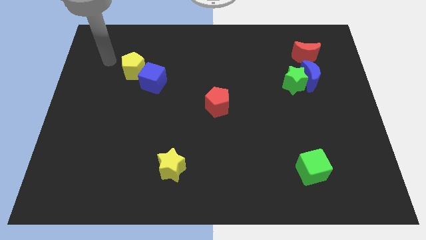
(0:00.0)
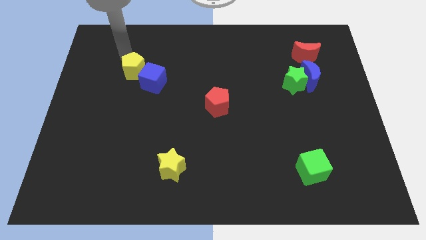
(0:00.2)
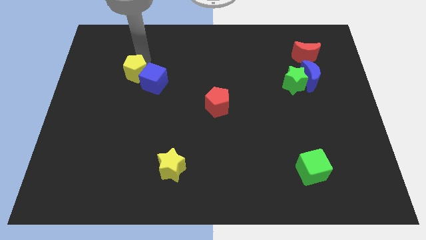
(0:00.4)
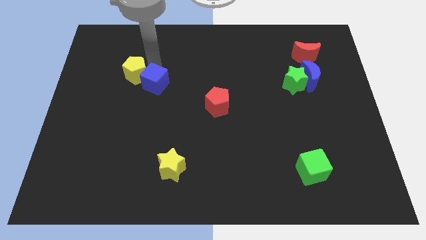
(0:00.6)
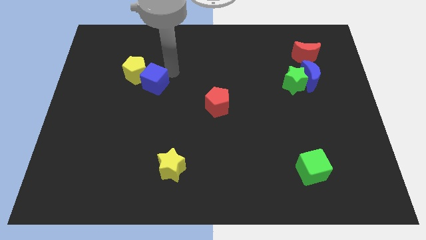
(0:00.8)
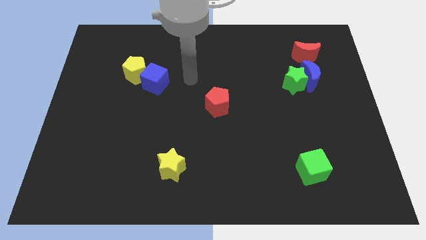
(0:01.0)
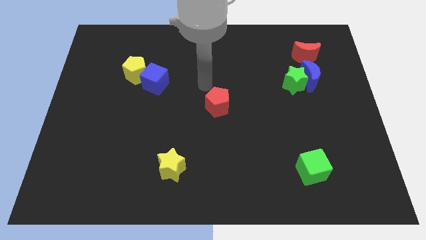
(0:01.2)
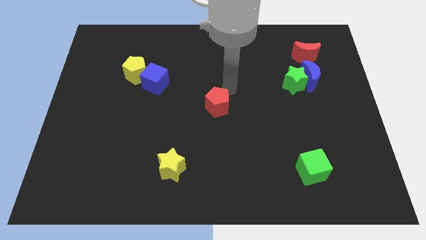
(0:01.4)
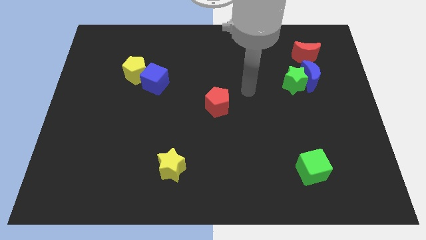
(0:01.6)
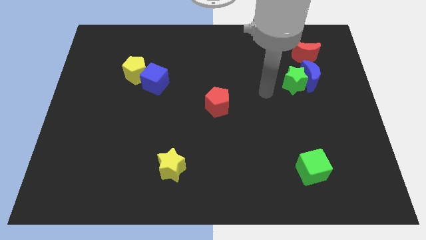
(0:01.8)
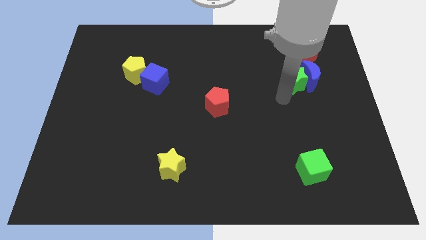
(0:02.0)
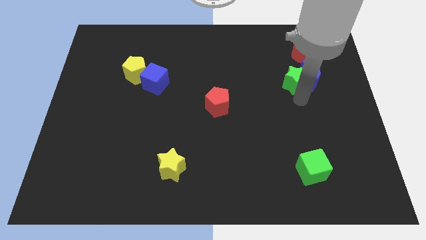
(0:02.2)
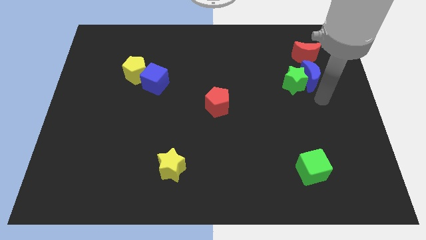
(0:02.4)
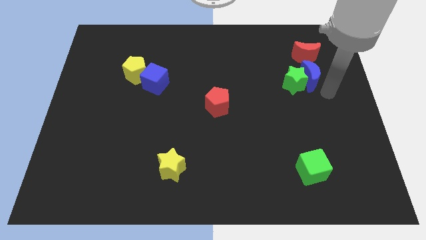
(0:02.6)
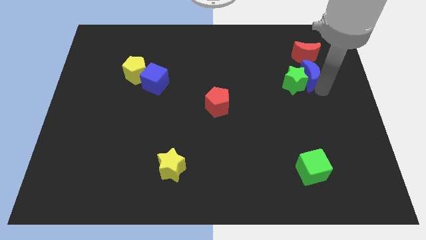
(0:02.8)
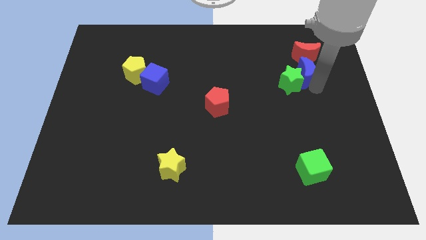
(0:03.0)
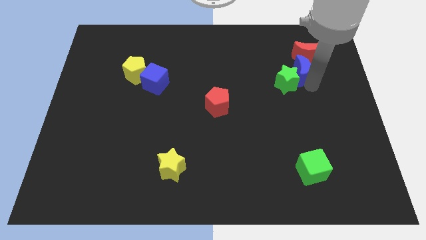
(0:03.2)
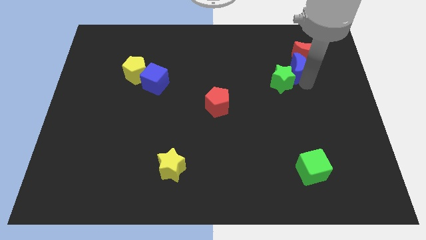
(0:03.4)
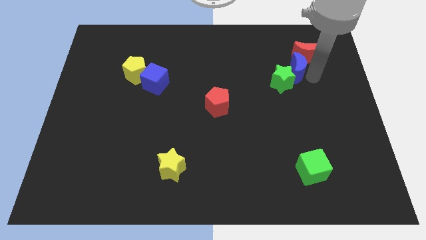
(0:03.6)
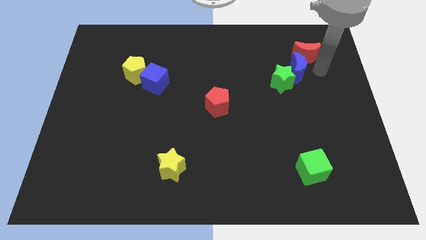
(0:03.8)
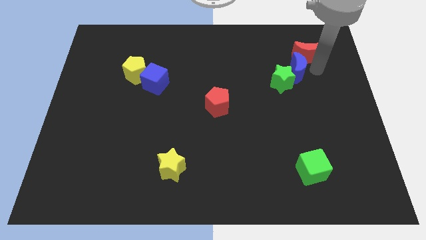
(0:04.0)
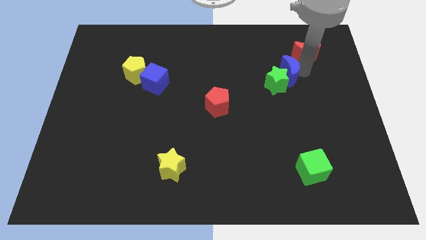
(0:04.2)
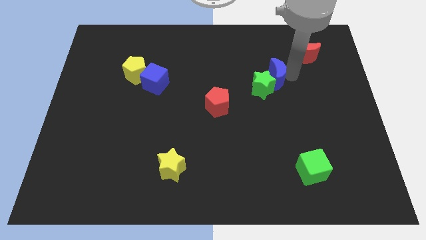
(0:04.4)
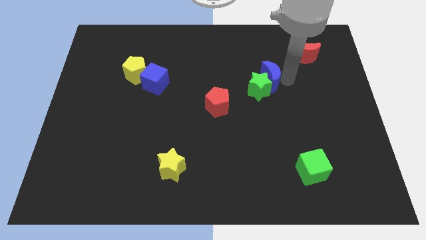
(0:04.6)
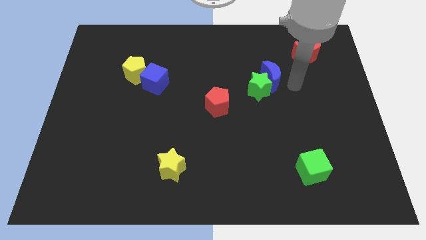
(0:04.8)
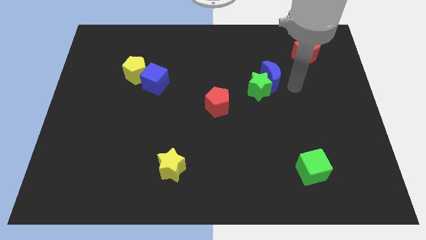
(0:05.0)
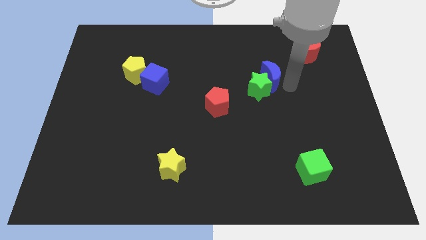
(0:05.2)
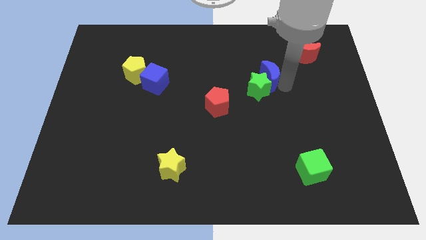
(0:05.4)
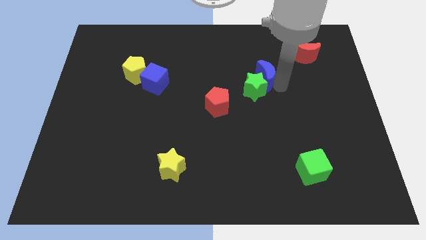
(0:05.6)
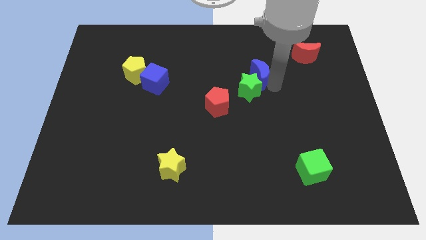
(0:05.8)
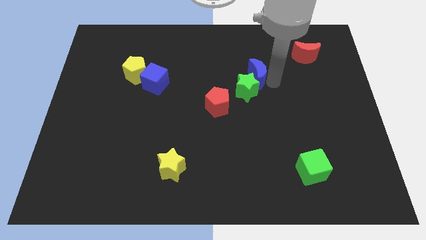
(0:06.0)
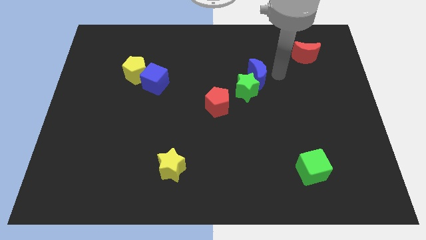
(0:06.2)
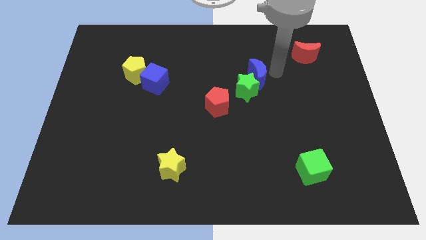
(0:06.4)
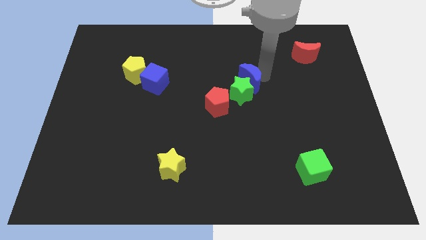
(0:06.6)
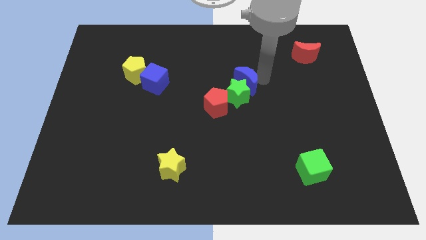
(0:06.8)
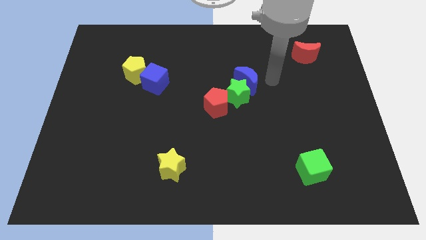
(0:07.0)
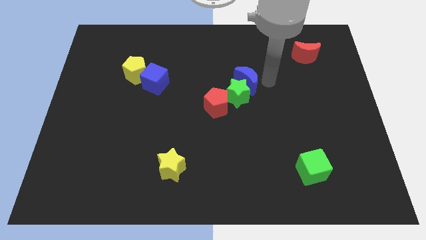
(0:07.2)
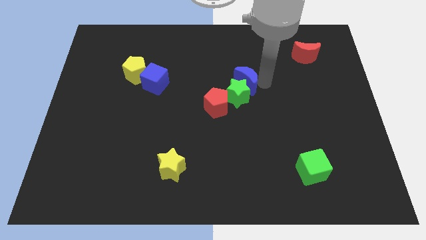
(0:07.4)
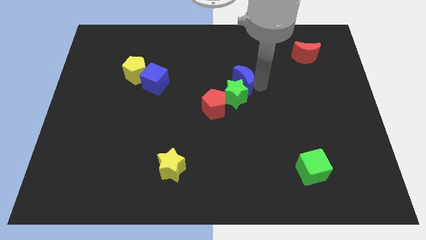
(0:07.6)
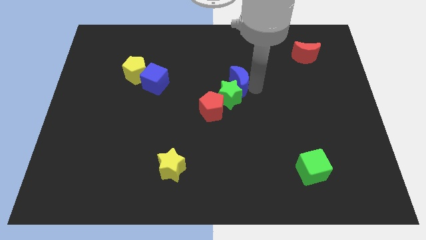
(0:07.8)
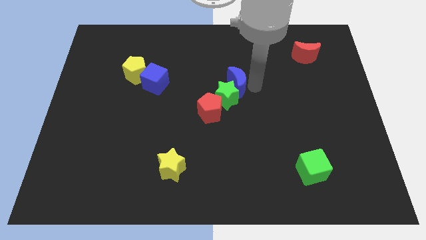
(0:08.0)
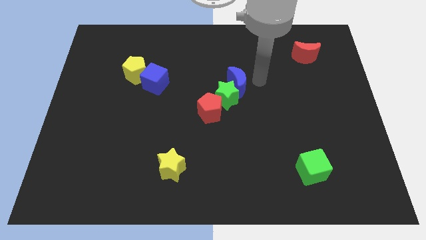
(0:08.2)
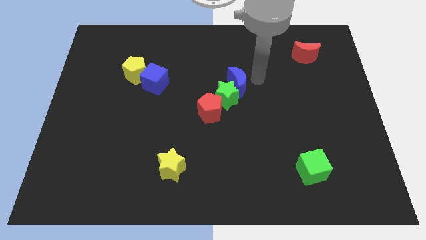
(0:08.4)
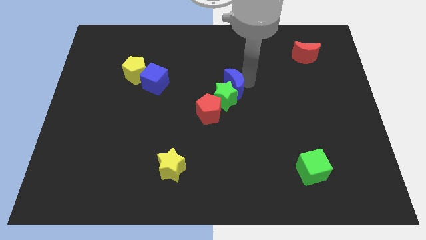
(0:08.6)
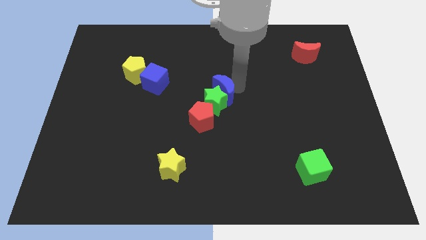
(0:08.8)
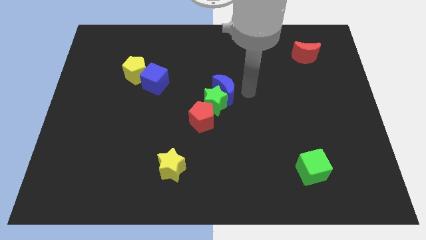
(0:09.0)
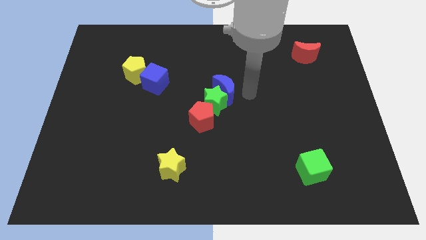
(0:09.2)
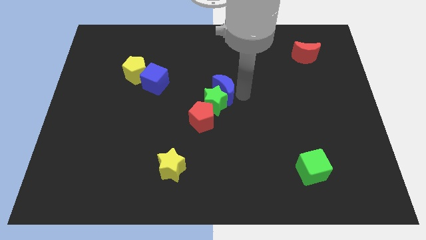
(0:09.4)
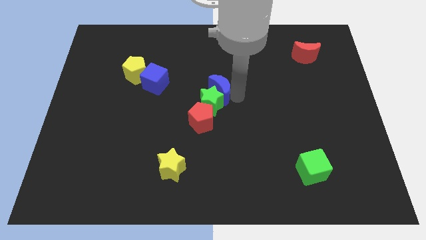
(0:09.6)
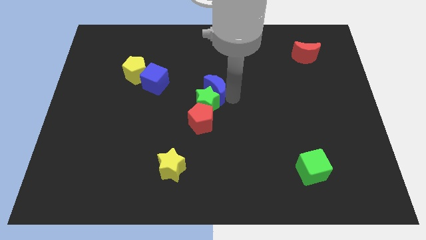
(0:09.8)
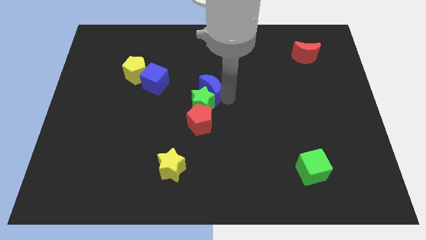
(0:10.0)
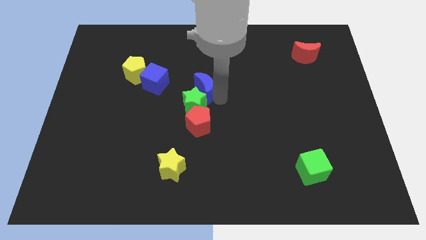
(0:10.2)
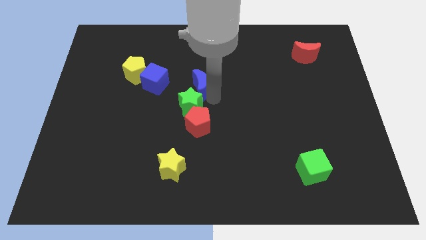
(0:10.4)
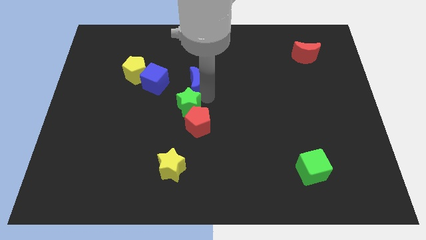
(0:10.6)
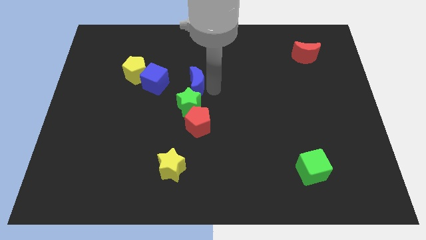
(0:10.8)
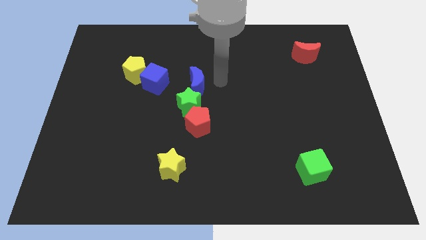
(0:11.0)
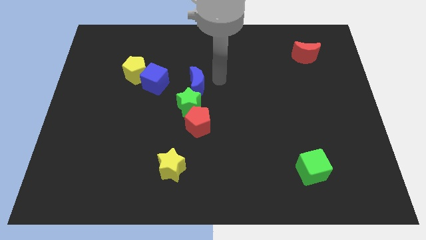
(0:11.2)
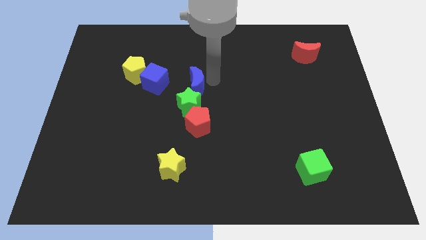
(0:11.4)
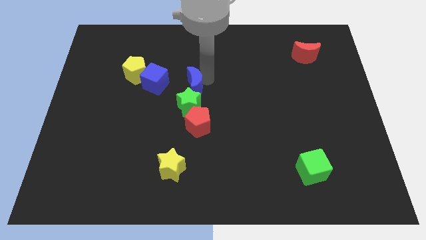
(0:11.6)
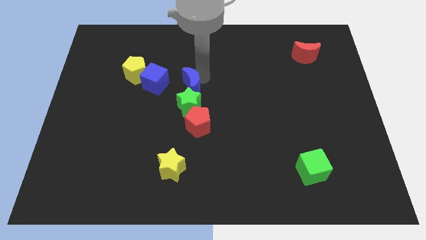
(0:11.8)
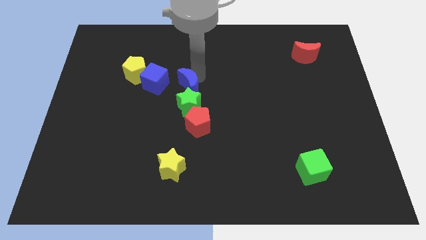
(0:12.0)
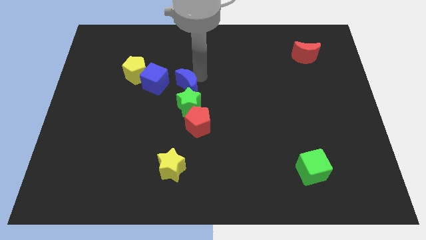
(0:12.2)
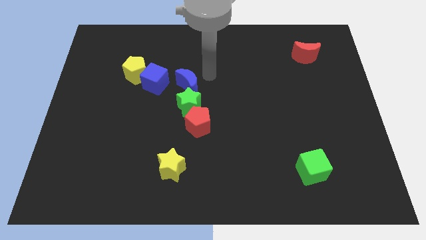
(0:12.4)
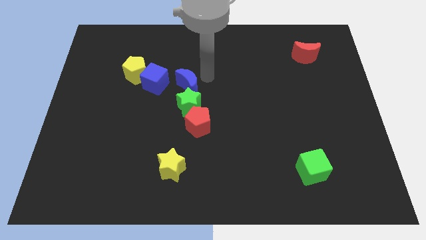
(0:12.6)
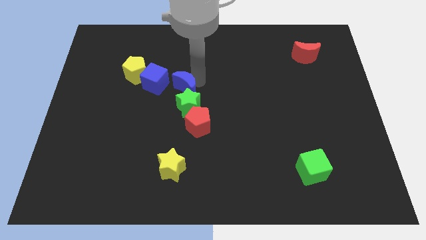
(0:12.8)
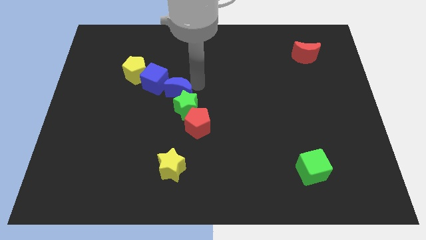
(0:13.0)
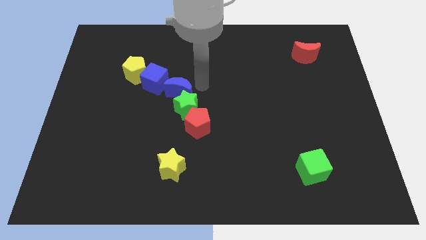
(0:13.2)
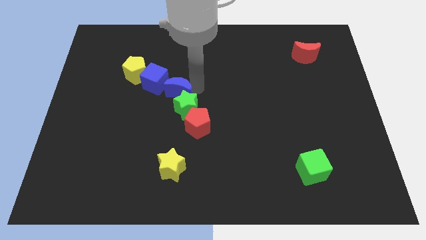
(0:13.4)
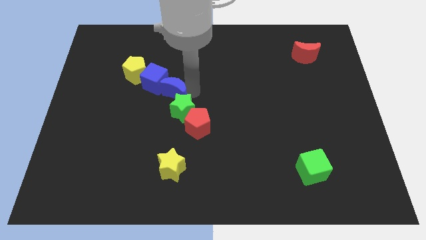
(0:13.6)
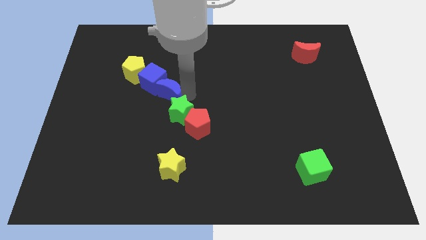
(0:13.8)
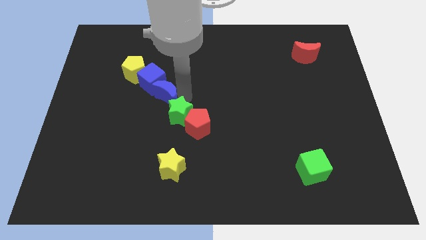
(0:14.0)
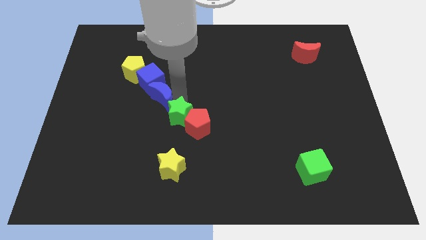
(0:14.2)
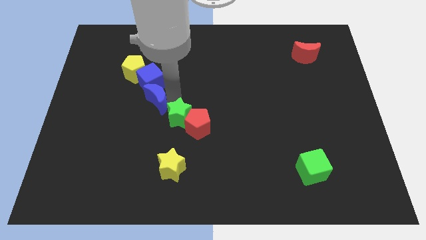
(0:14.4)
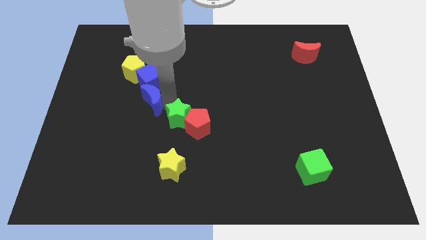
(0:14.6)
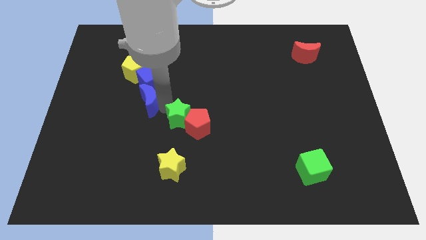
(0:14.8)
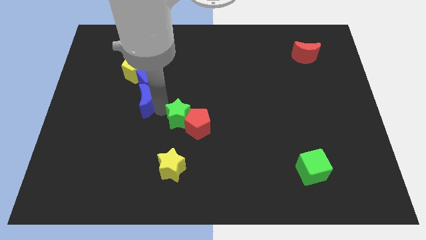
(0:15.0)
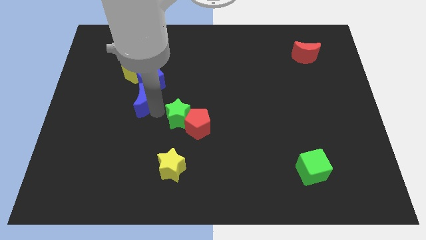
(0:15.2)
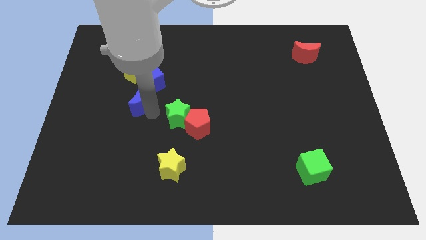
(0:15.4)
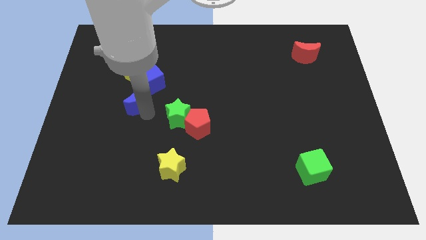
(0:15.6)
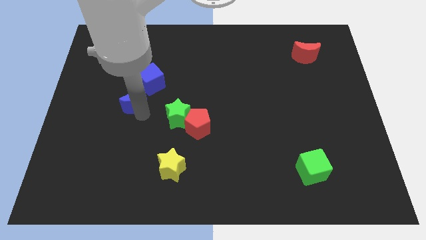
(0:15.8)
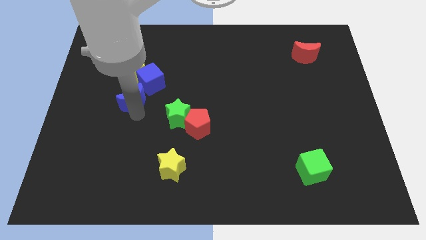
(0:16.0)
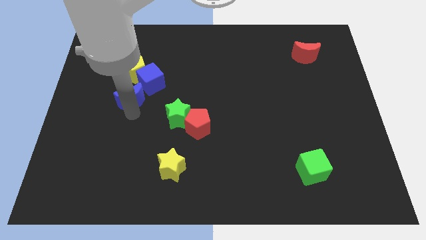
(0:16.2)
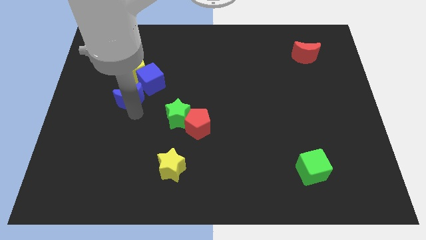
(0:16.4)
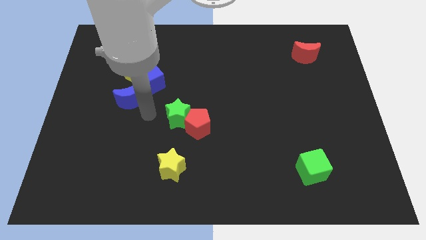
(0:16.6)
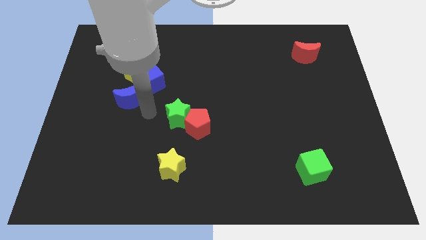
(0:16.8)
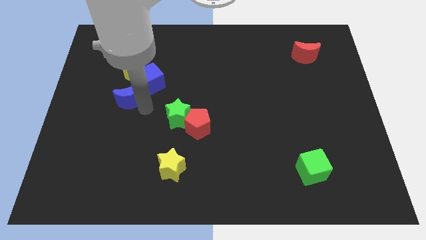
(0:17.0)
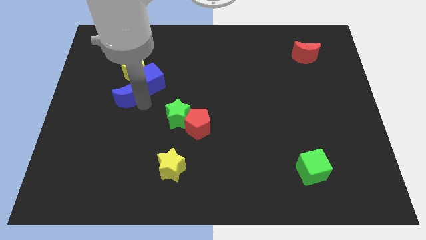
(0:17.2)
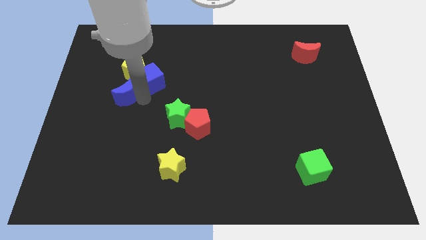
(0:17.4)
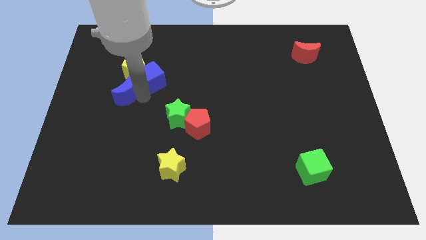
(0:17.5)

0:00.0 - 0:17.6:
push the blue moon diagonally down and to the left of the yellow pentagon
